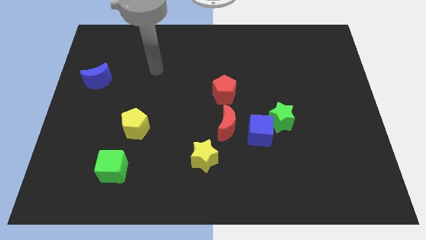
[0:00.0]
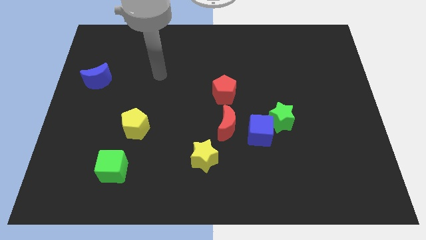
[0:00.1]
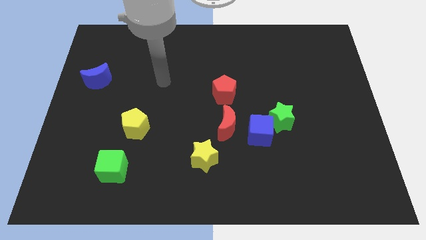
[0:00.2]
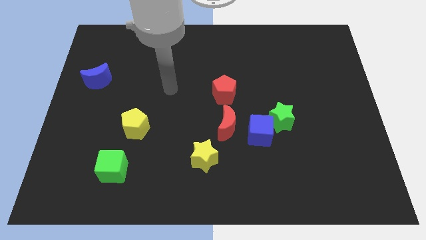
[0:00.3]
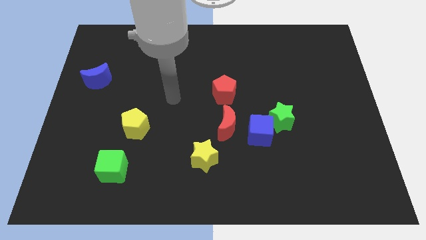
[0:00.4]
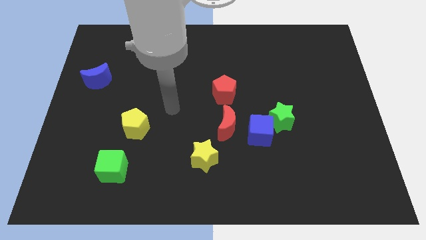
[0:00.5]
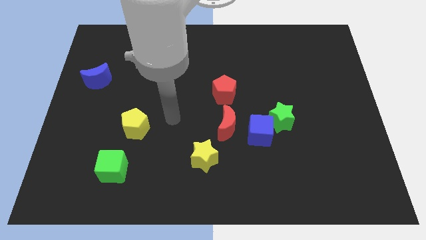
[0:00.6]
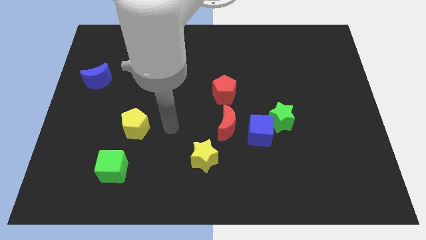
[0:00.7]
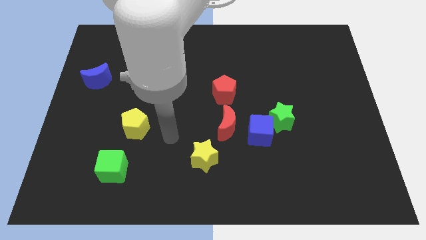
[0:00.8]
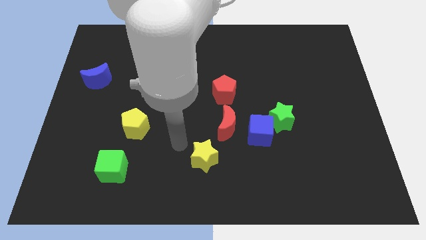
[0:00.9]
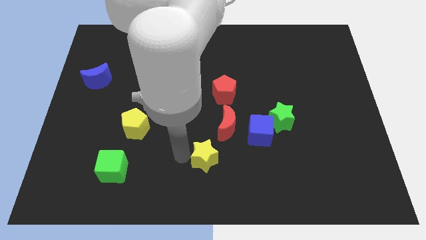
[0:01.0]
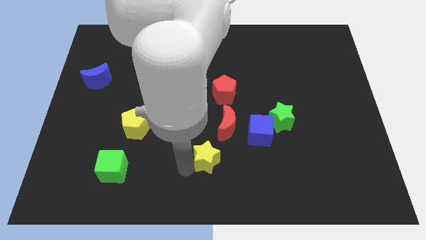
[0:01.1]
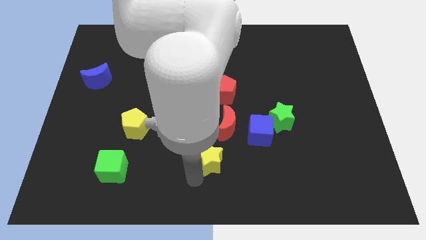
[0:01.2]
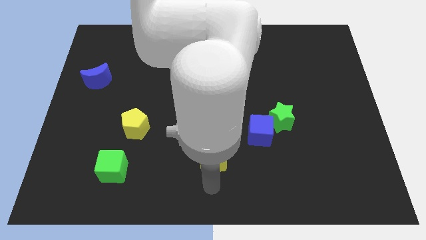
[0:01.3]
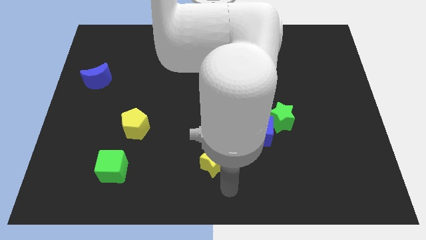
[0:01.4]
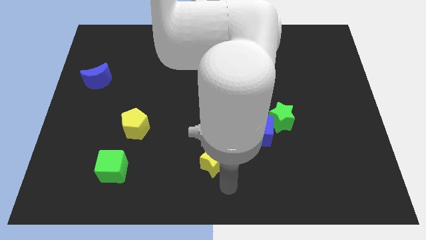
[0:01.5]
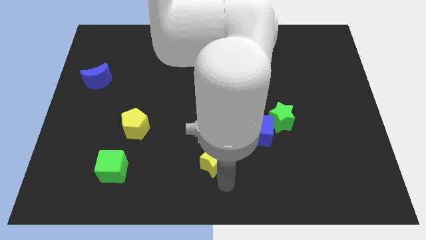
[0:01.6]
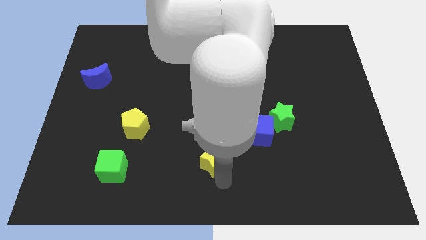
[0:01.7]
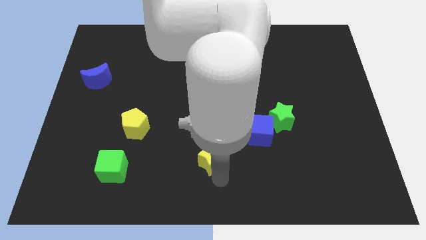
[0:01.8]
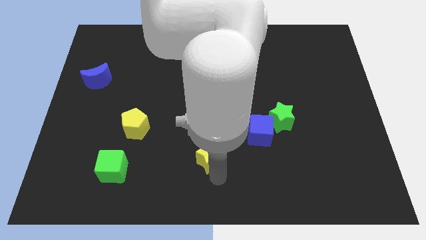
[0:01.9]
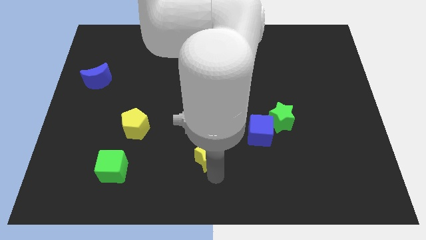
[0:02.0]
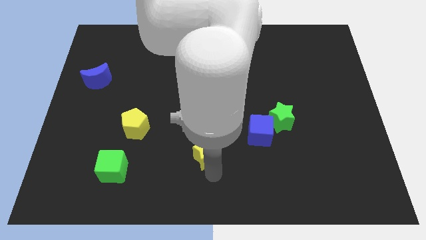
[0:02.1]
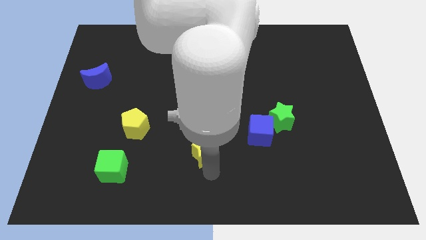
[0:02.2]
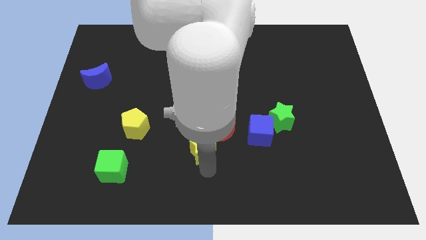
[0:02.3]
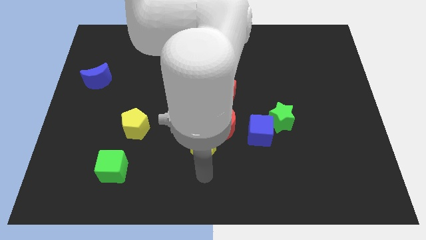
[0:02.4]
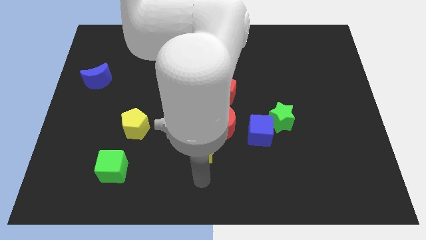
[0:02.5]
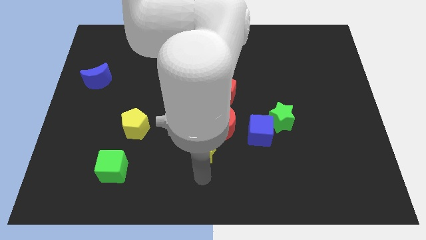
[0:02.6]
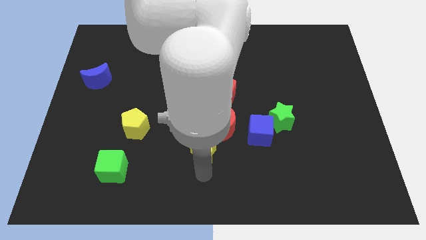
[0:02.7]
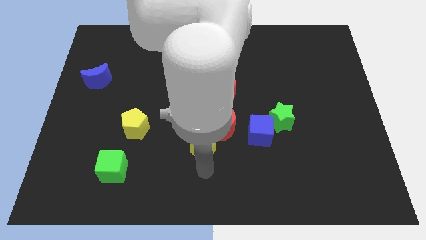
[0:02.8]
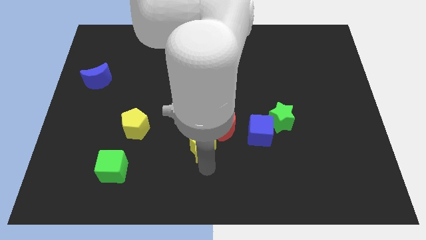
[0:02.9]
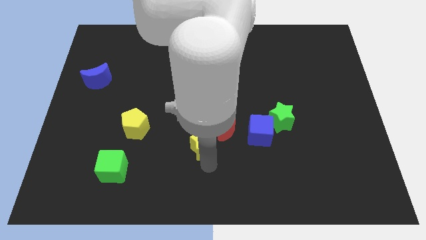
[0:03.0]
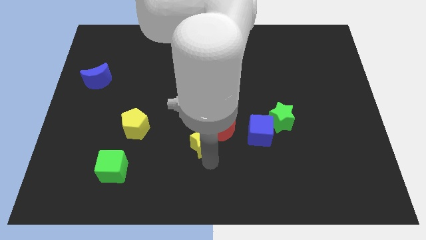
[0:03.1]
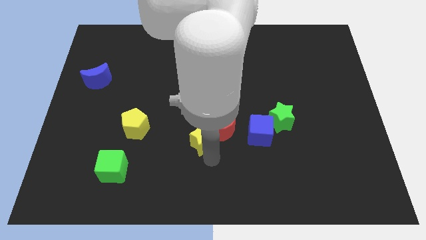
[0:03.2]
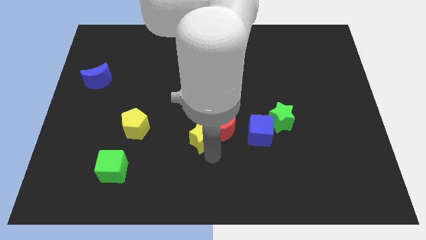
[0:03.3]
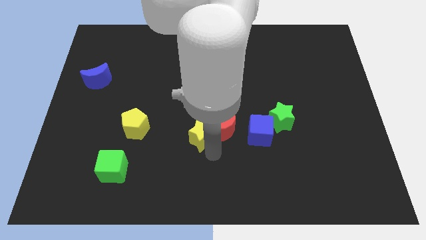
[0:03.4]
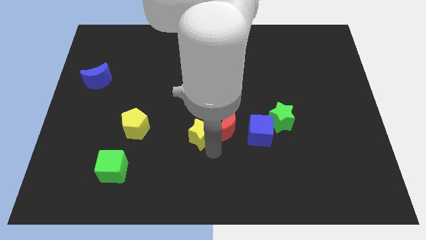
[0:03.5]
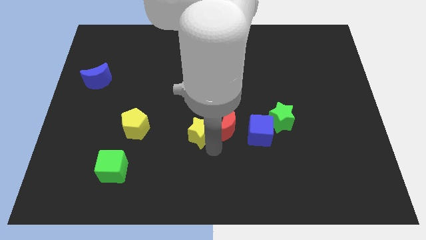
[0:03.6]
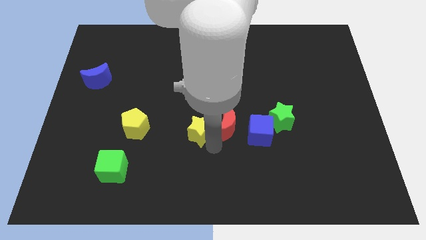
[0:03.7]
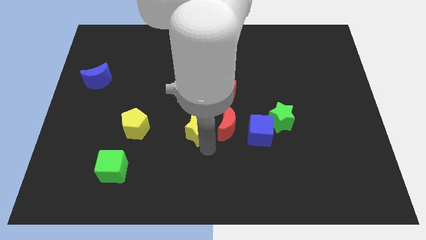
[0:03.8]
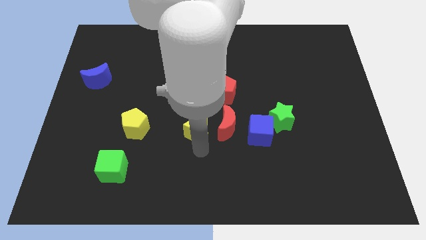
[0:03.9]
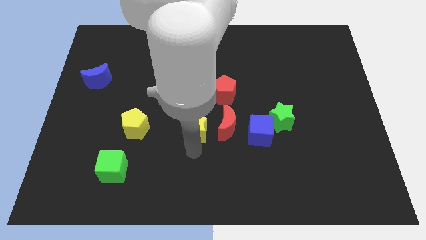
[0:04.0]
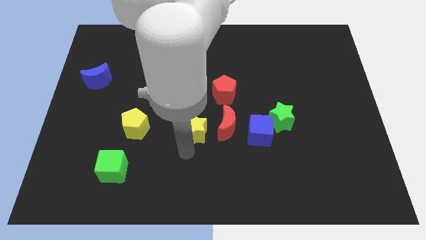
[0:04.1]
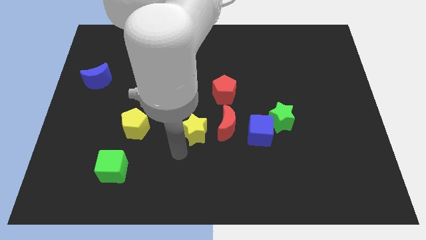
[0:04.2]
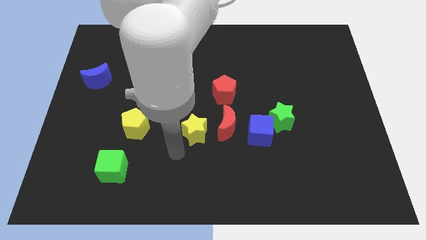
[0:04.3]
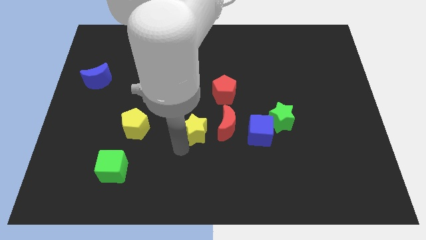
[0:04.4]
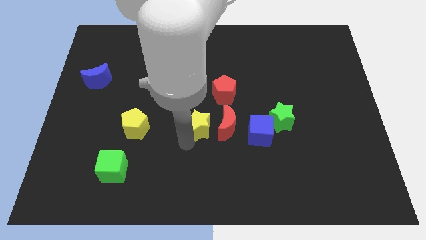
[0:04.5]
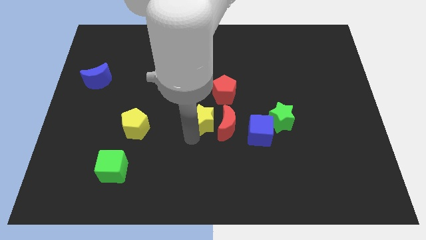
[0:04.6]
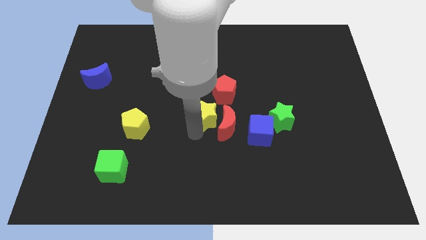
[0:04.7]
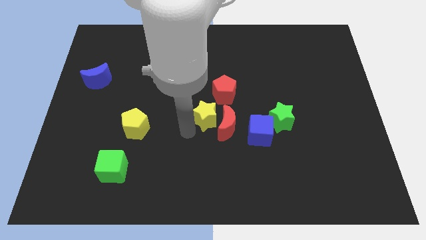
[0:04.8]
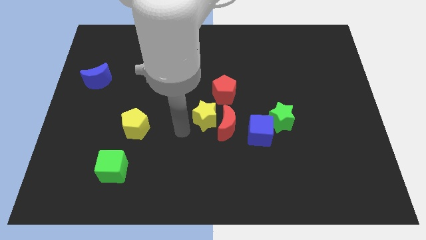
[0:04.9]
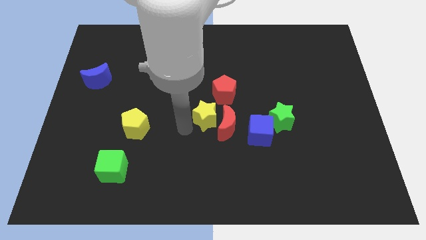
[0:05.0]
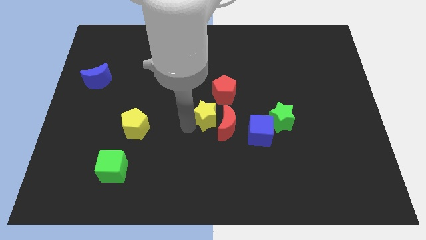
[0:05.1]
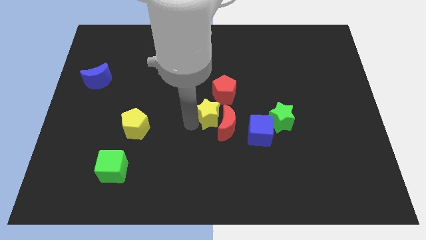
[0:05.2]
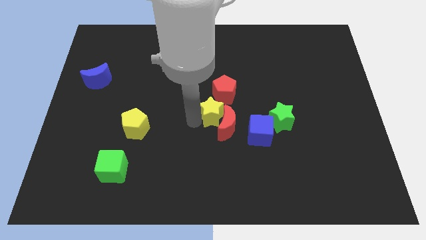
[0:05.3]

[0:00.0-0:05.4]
slightly move the yellow star upwards and right

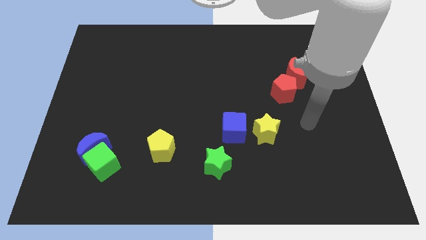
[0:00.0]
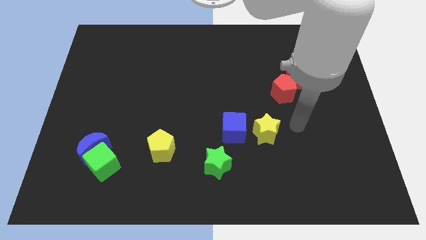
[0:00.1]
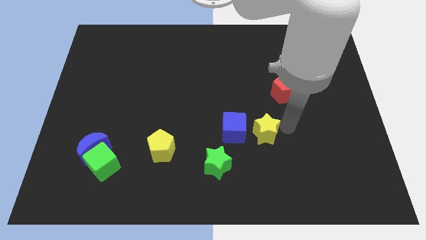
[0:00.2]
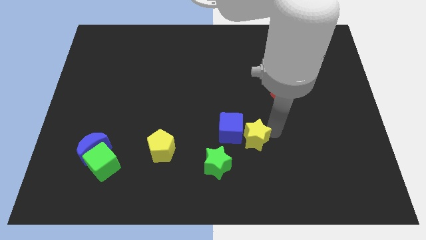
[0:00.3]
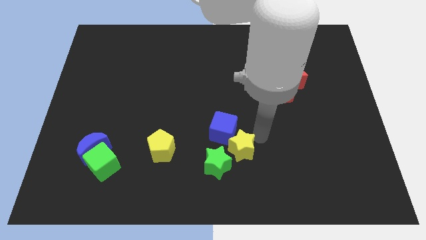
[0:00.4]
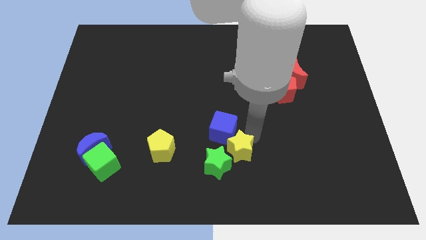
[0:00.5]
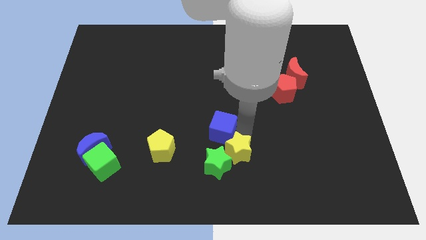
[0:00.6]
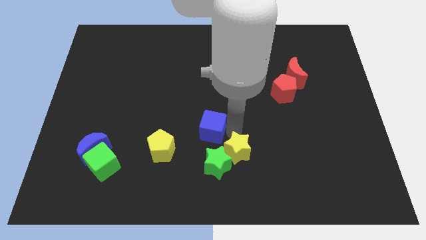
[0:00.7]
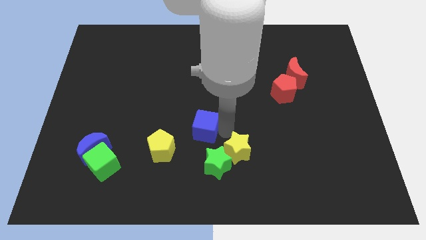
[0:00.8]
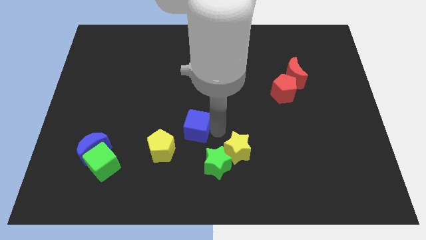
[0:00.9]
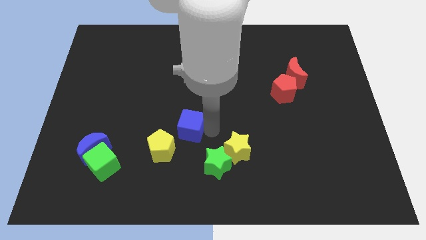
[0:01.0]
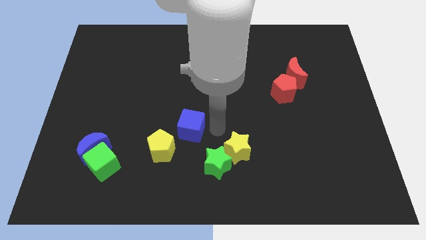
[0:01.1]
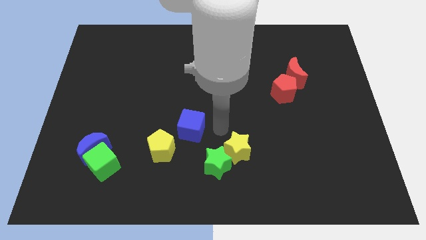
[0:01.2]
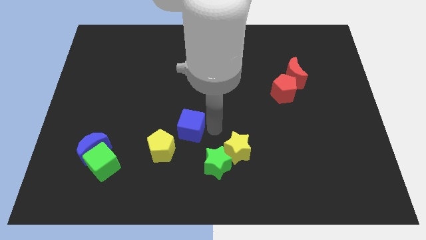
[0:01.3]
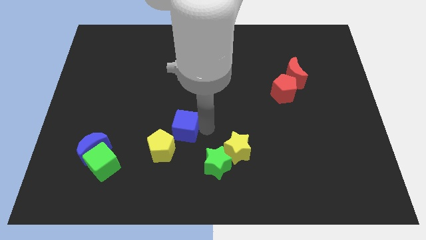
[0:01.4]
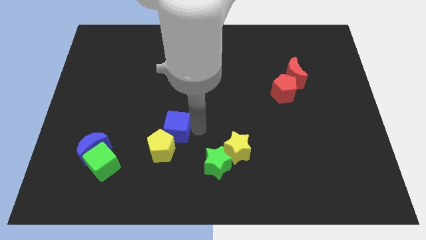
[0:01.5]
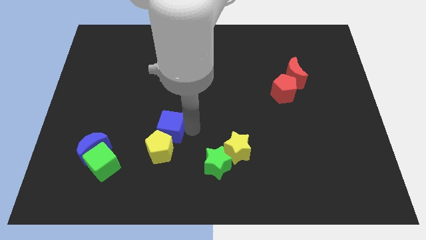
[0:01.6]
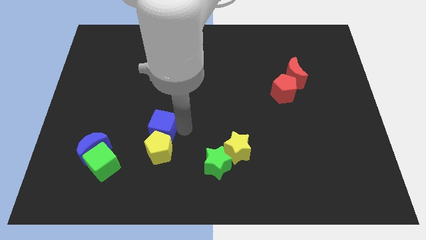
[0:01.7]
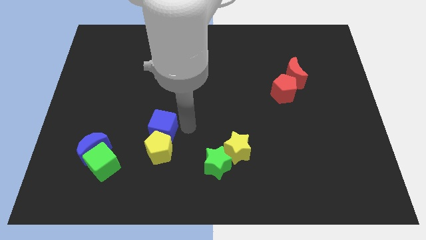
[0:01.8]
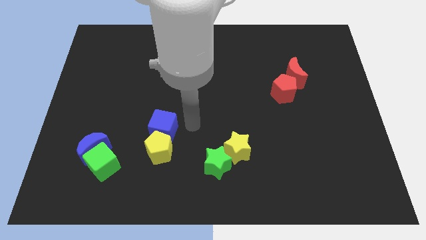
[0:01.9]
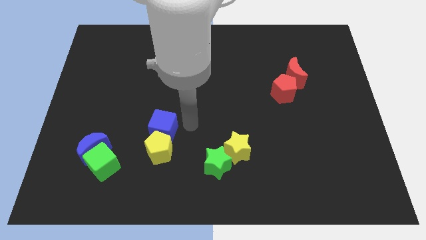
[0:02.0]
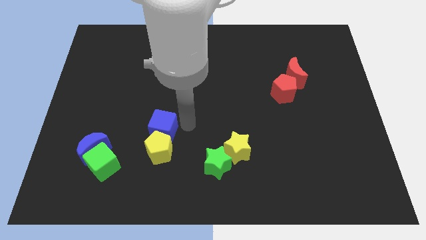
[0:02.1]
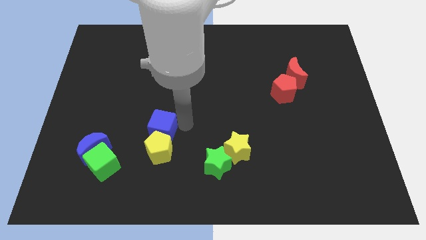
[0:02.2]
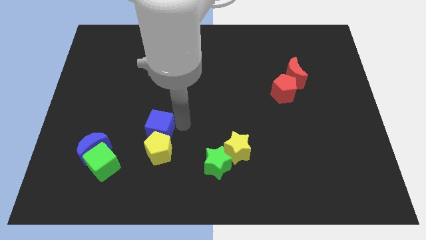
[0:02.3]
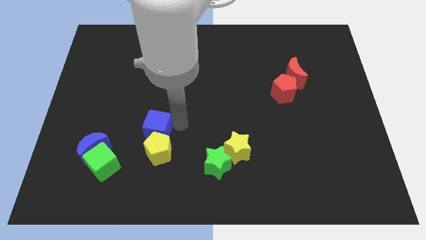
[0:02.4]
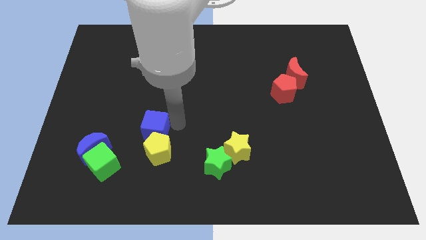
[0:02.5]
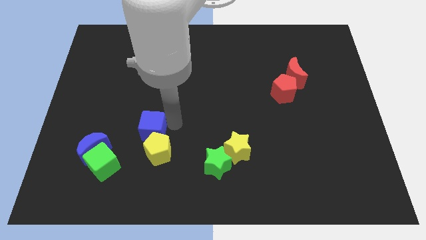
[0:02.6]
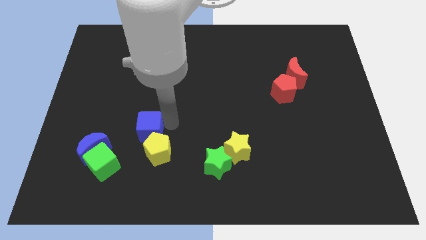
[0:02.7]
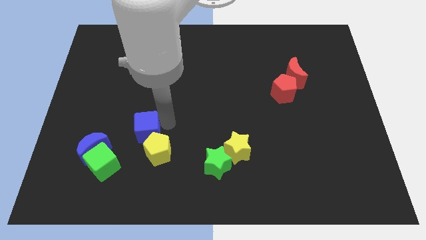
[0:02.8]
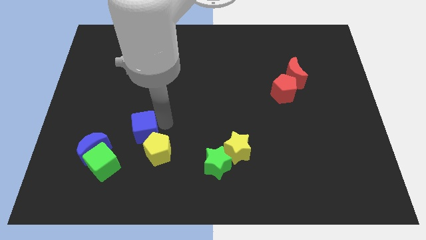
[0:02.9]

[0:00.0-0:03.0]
move the blue cube to the left
